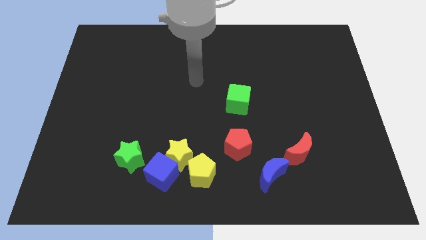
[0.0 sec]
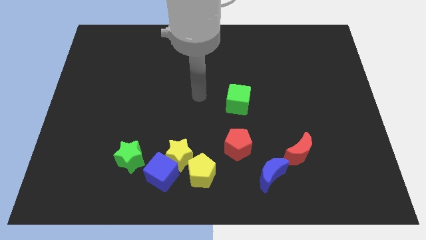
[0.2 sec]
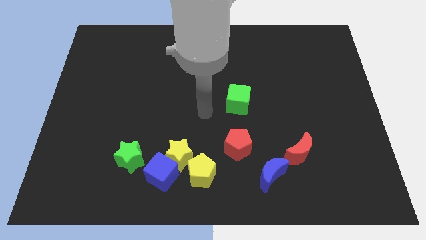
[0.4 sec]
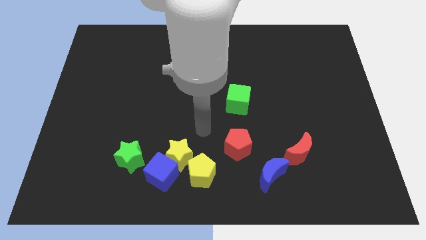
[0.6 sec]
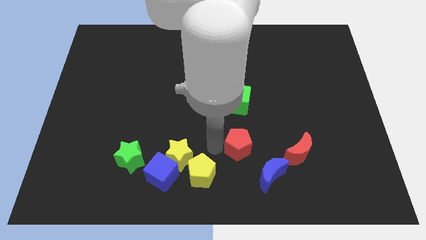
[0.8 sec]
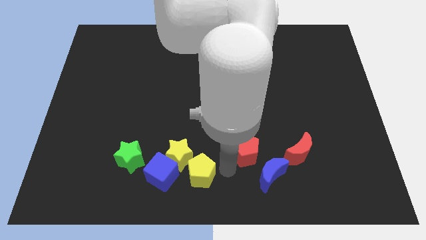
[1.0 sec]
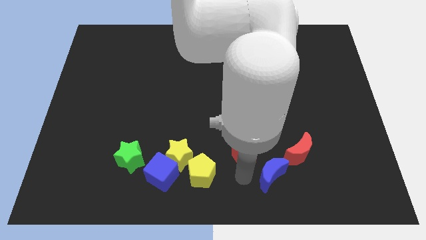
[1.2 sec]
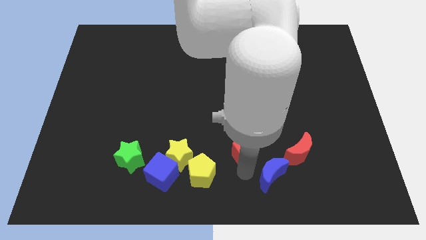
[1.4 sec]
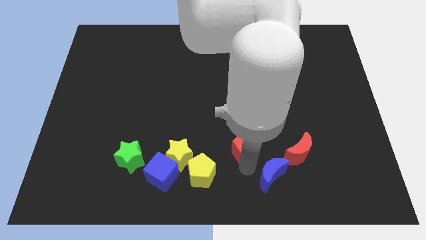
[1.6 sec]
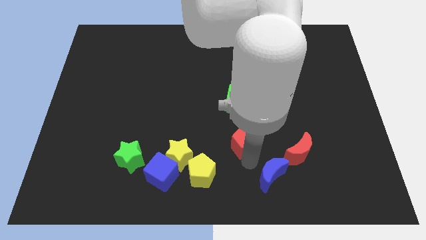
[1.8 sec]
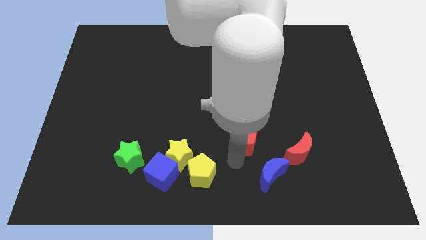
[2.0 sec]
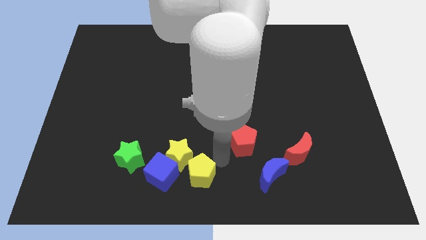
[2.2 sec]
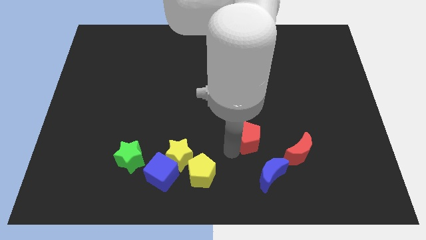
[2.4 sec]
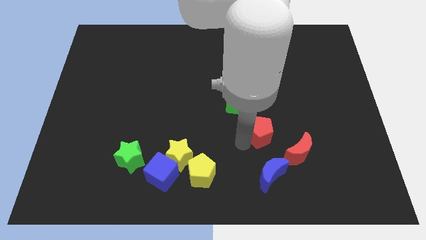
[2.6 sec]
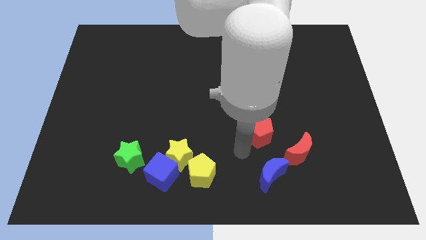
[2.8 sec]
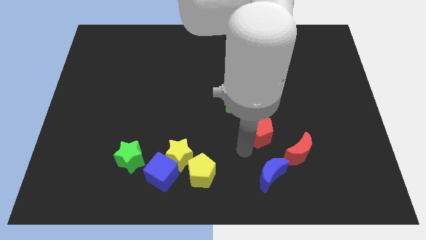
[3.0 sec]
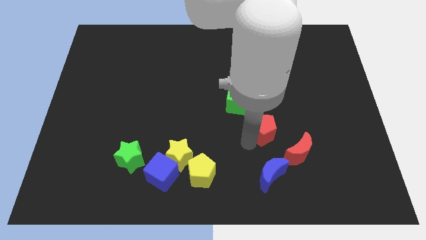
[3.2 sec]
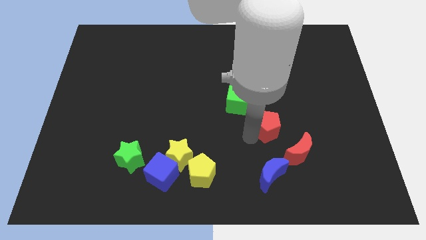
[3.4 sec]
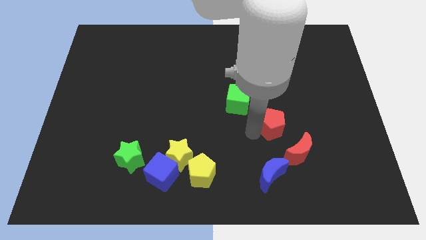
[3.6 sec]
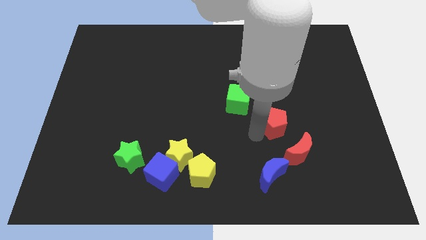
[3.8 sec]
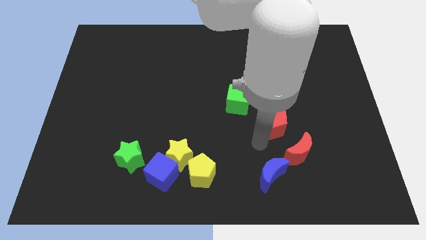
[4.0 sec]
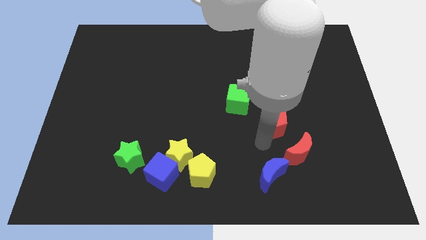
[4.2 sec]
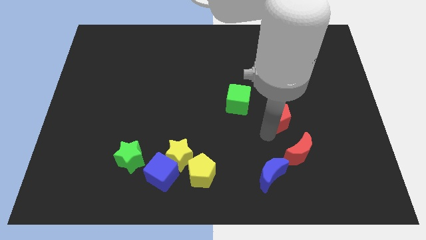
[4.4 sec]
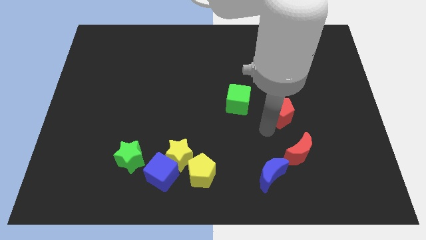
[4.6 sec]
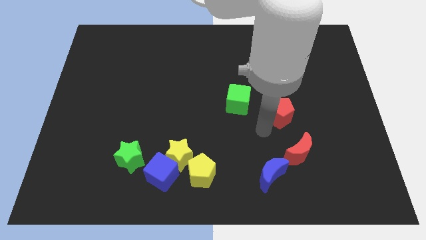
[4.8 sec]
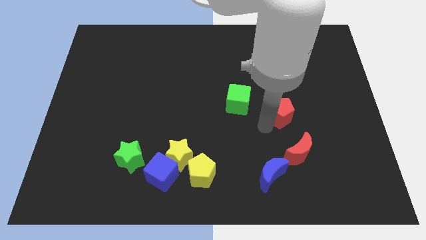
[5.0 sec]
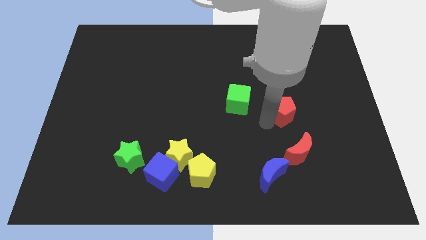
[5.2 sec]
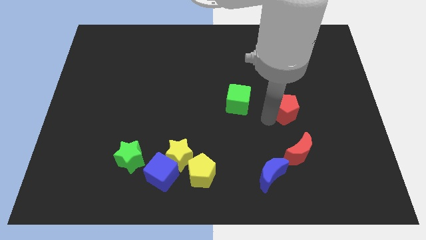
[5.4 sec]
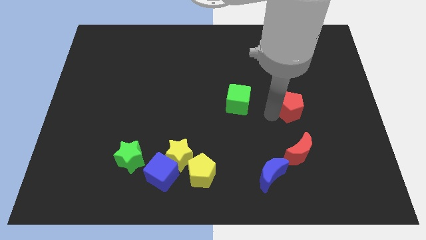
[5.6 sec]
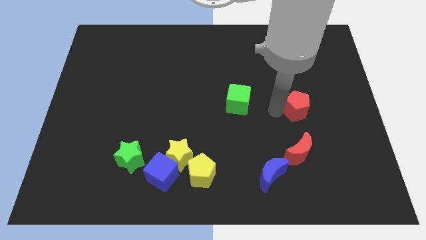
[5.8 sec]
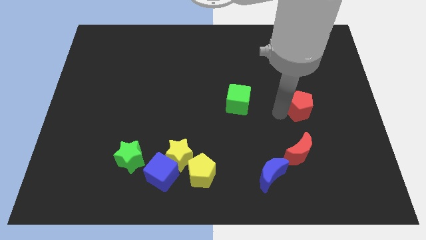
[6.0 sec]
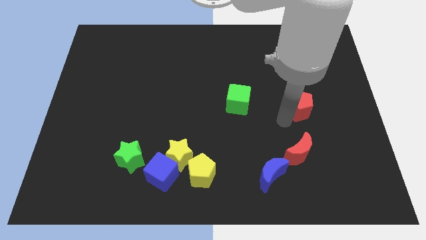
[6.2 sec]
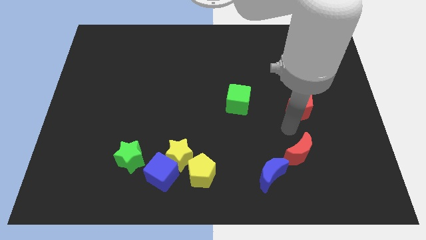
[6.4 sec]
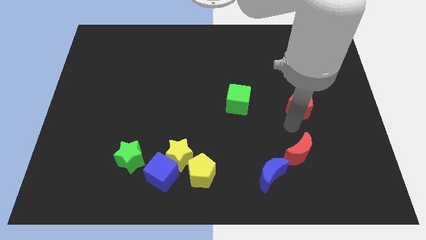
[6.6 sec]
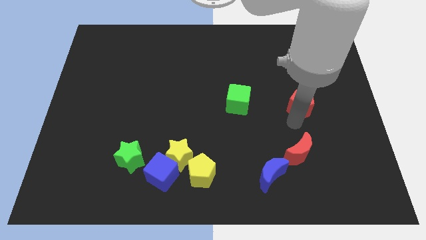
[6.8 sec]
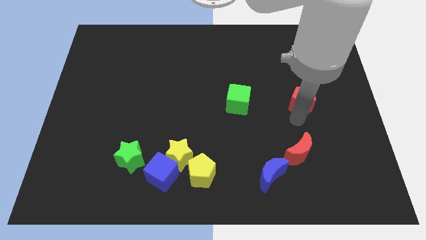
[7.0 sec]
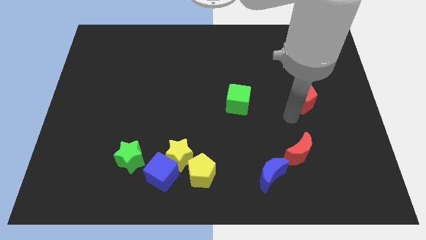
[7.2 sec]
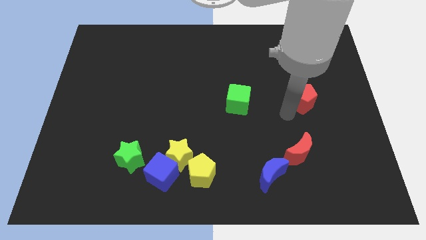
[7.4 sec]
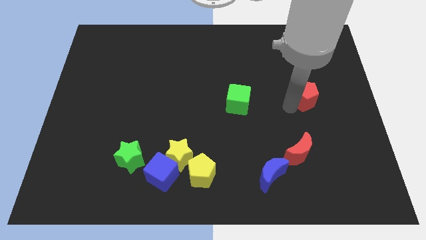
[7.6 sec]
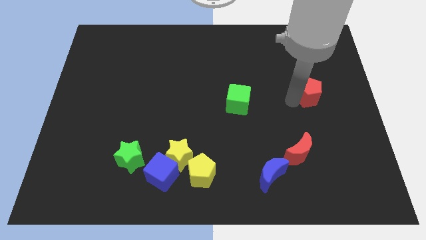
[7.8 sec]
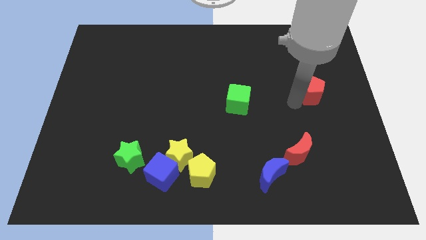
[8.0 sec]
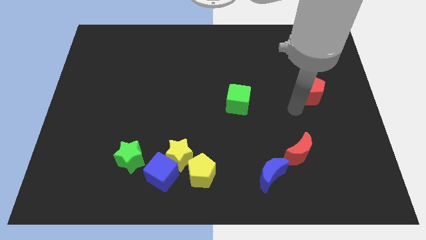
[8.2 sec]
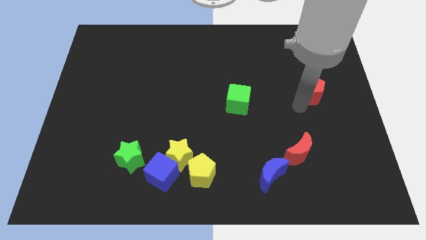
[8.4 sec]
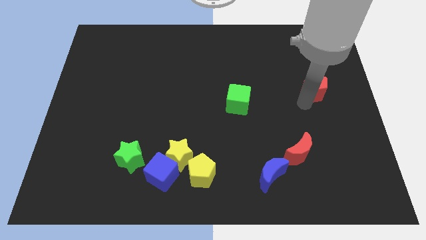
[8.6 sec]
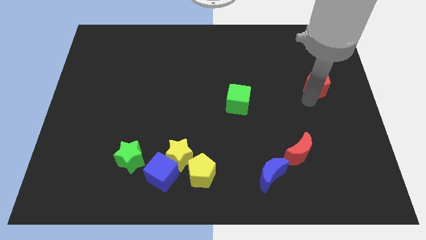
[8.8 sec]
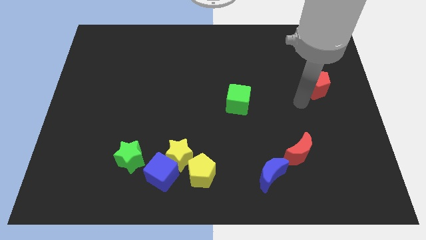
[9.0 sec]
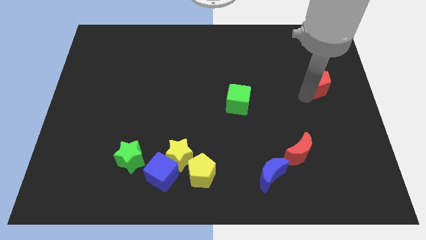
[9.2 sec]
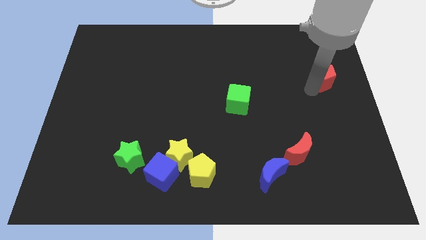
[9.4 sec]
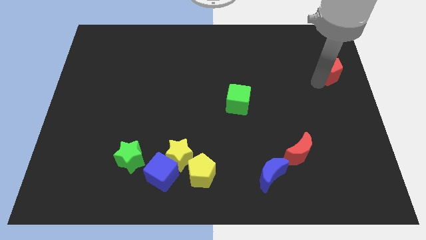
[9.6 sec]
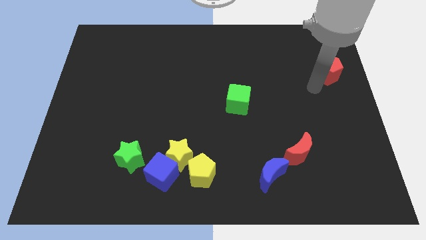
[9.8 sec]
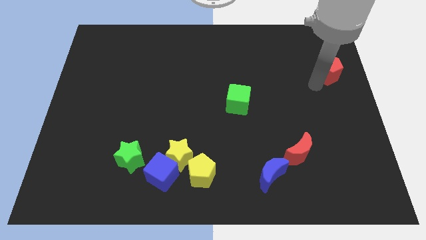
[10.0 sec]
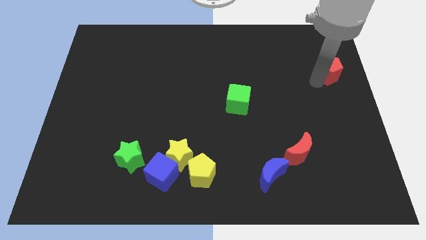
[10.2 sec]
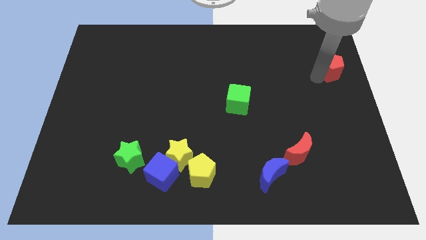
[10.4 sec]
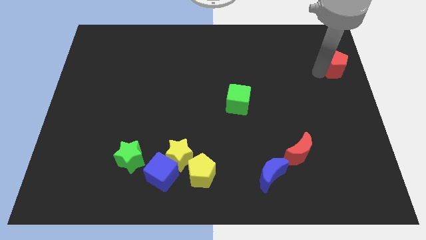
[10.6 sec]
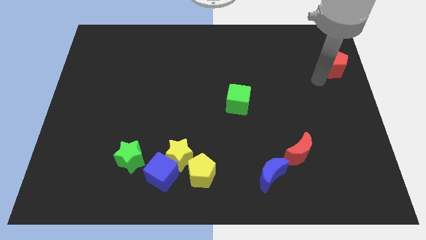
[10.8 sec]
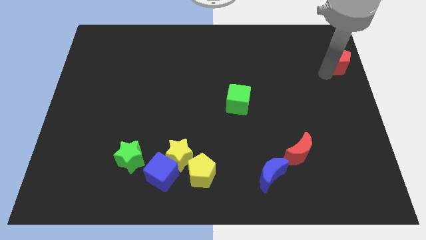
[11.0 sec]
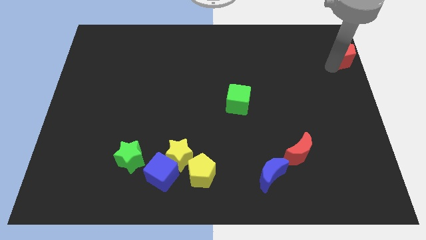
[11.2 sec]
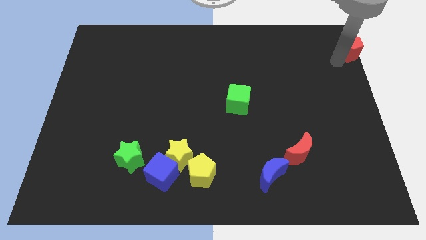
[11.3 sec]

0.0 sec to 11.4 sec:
put the red pentagon to the top right

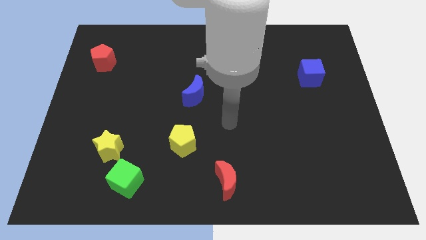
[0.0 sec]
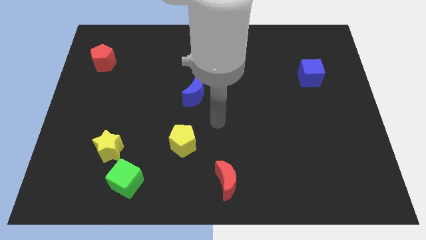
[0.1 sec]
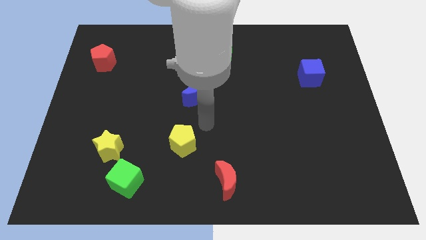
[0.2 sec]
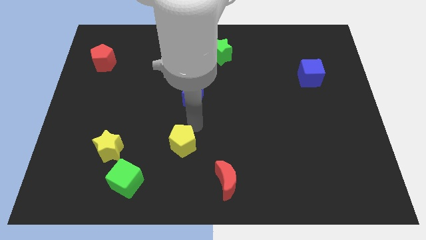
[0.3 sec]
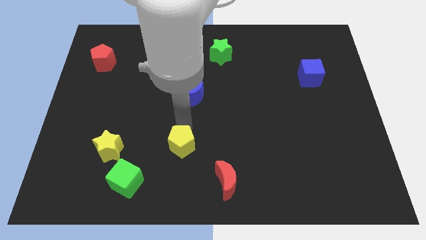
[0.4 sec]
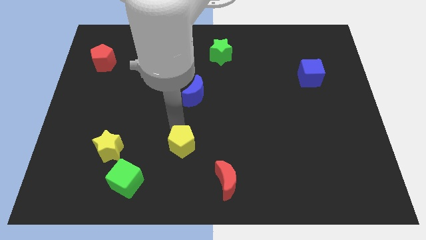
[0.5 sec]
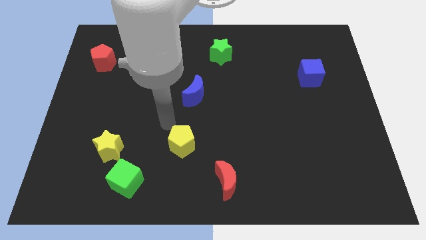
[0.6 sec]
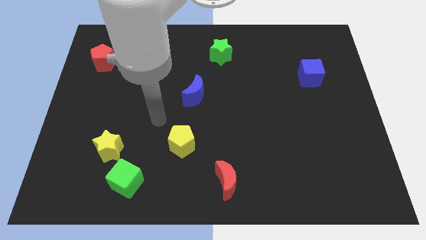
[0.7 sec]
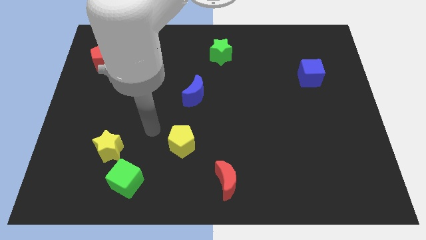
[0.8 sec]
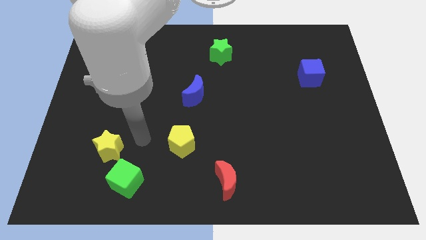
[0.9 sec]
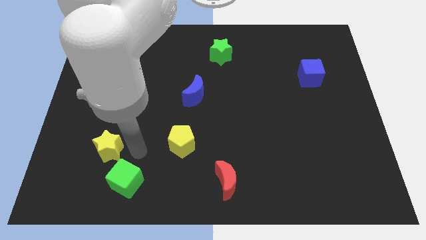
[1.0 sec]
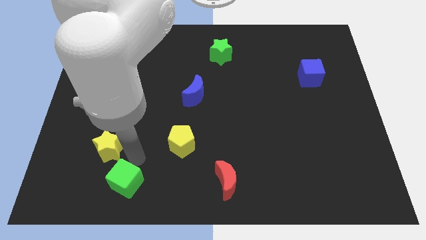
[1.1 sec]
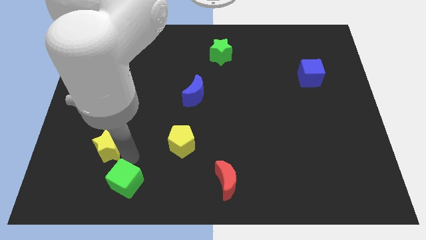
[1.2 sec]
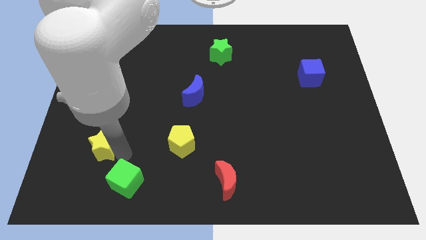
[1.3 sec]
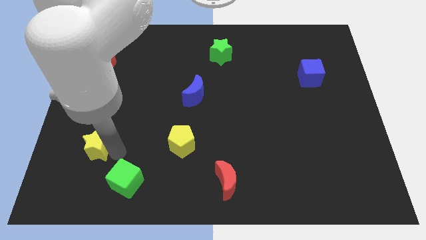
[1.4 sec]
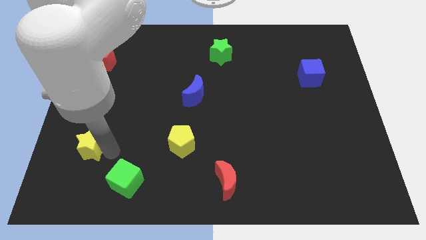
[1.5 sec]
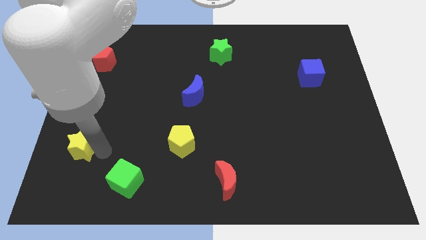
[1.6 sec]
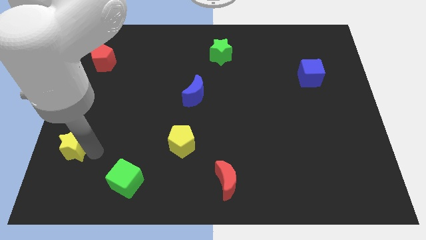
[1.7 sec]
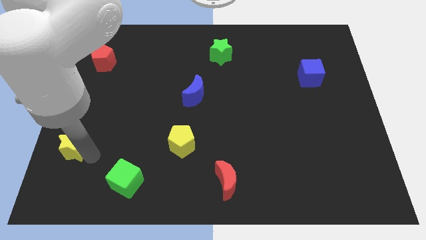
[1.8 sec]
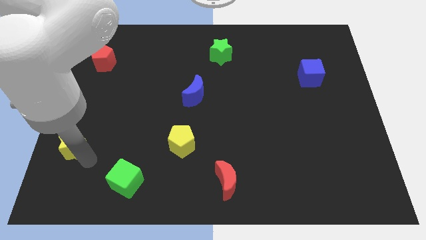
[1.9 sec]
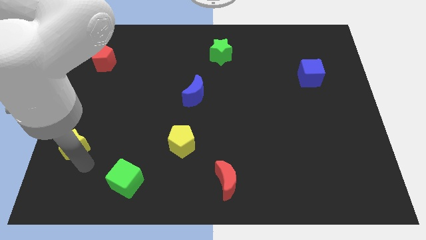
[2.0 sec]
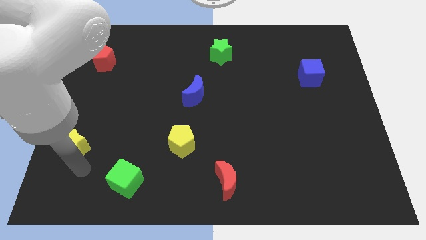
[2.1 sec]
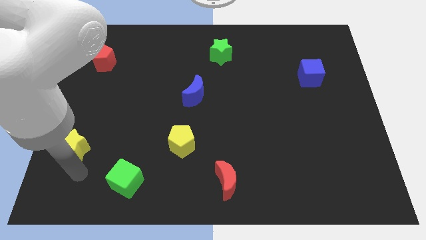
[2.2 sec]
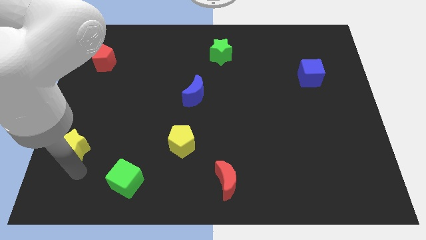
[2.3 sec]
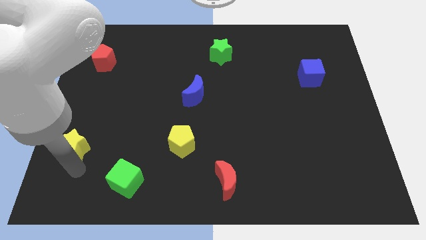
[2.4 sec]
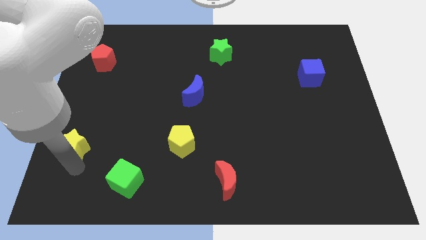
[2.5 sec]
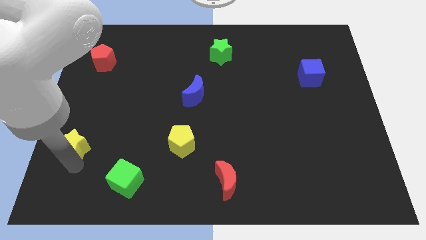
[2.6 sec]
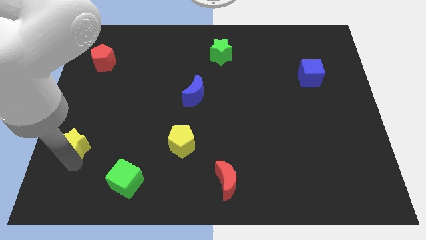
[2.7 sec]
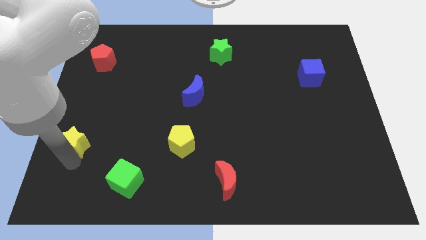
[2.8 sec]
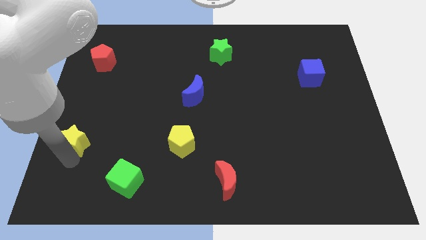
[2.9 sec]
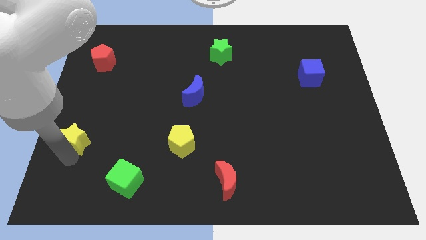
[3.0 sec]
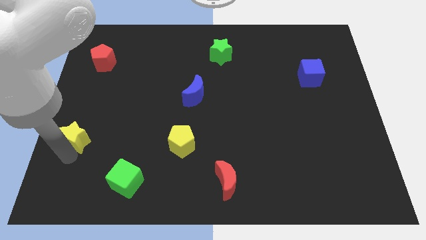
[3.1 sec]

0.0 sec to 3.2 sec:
move the yellow star to the left side of the board
